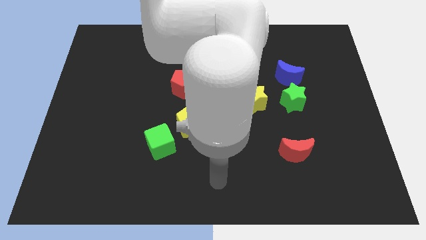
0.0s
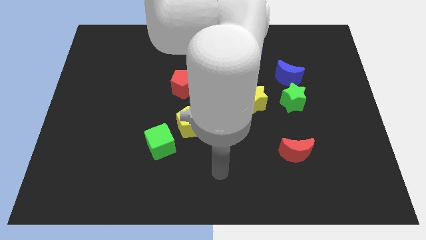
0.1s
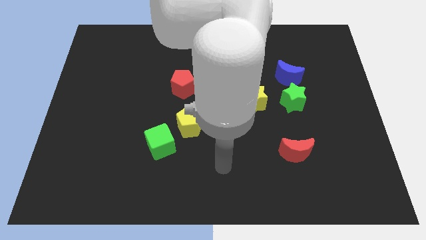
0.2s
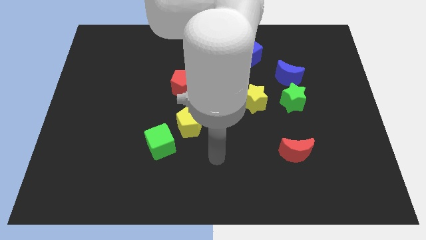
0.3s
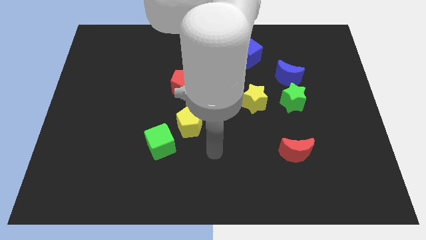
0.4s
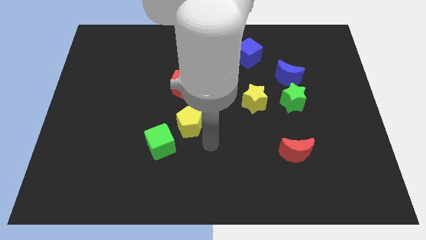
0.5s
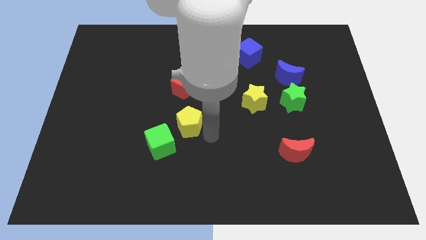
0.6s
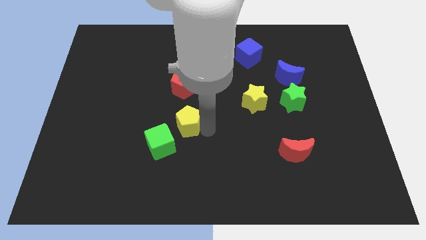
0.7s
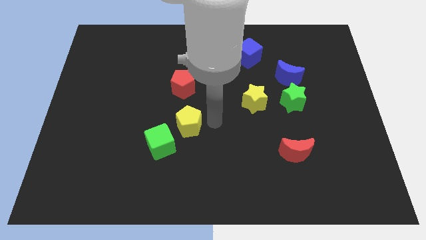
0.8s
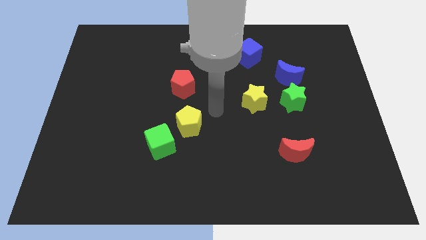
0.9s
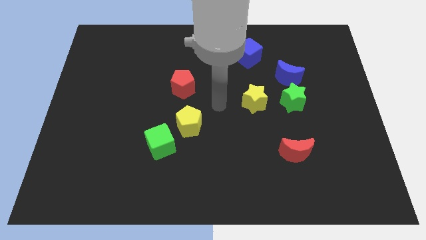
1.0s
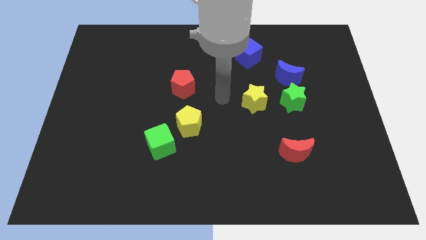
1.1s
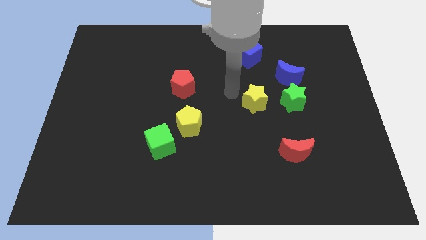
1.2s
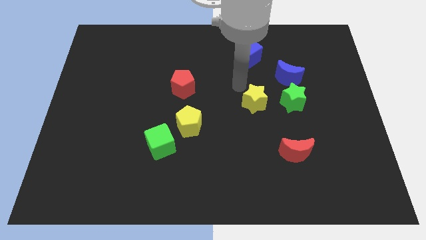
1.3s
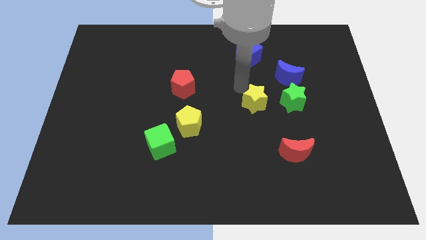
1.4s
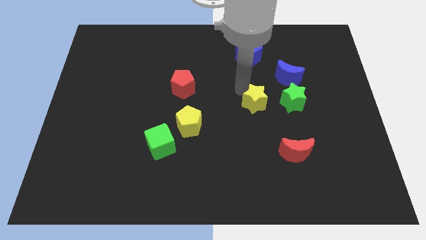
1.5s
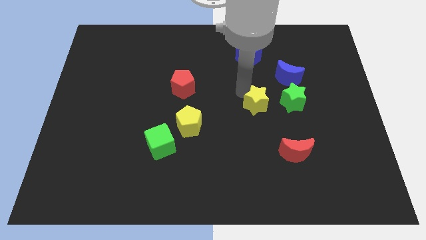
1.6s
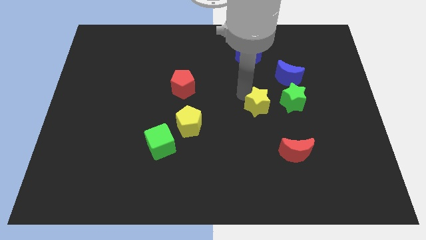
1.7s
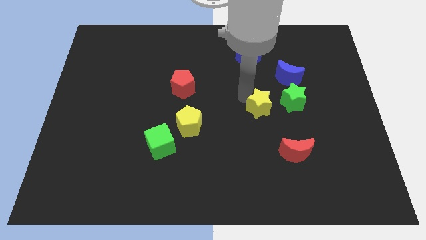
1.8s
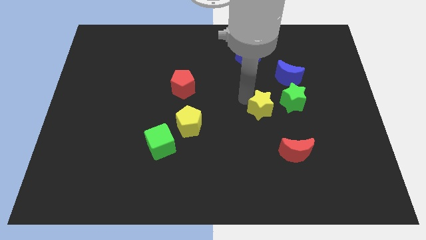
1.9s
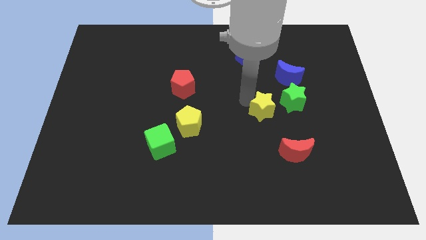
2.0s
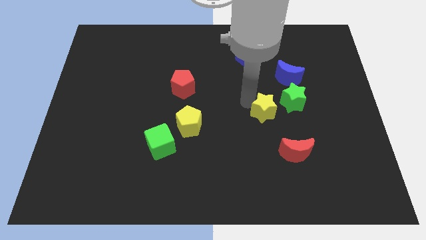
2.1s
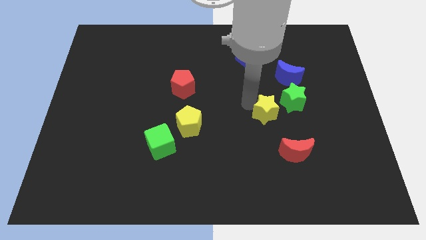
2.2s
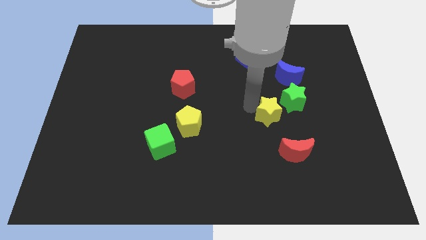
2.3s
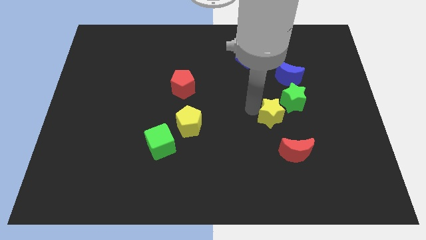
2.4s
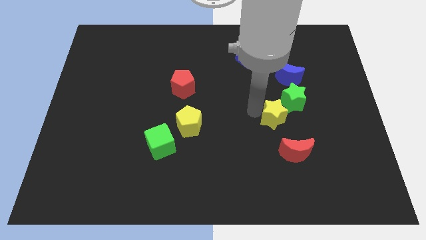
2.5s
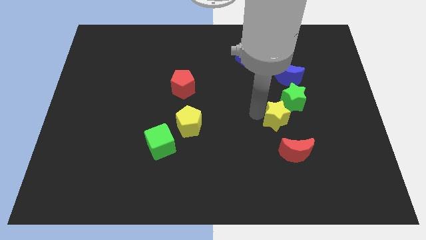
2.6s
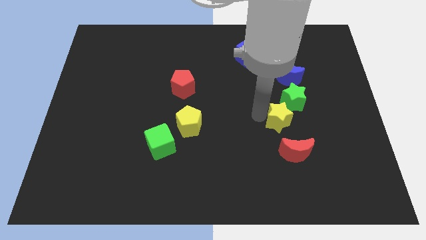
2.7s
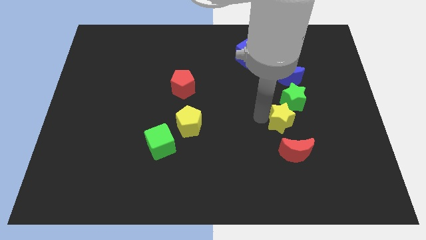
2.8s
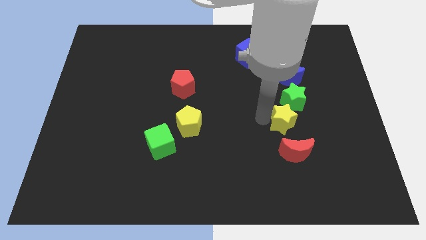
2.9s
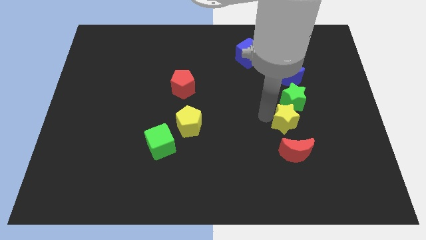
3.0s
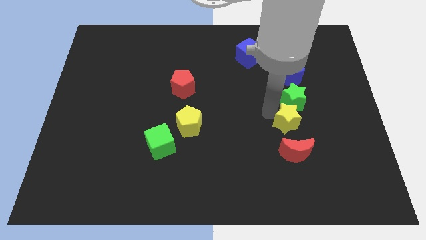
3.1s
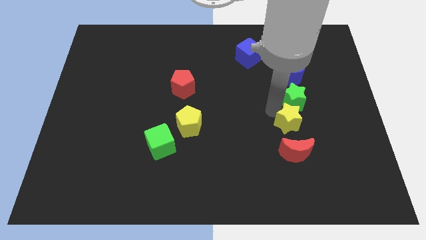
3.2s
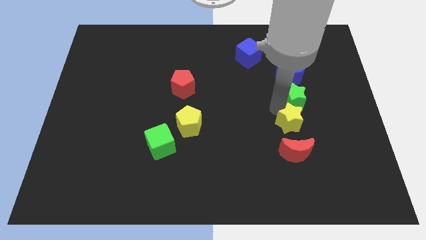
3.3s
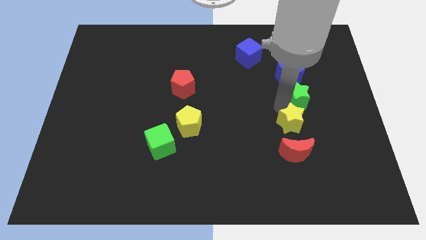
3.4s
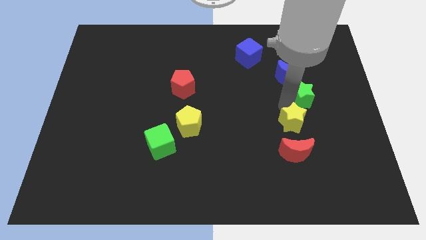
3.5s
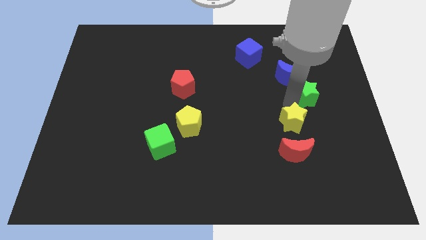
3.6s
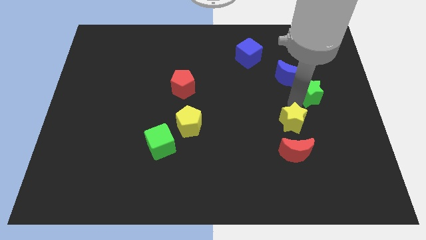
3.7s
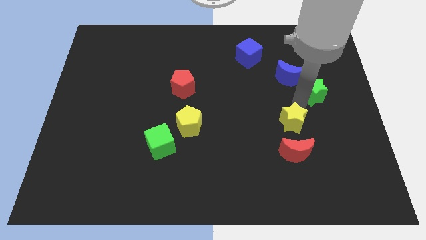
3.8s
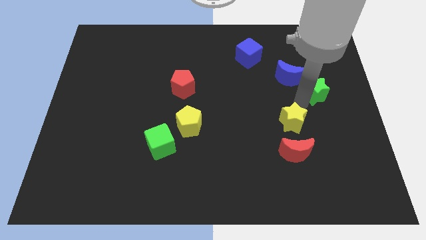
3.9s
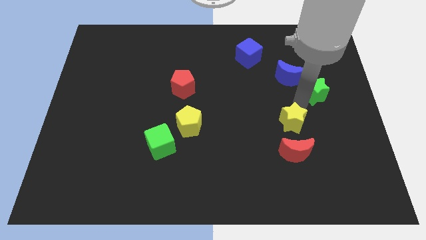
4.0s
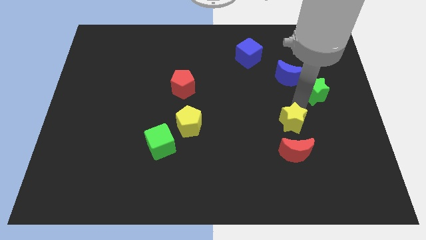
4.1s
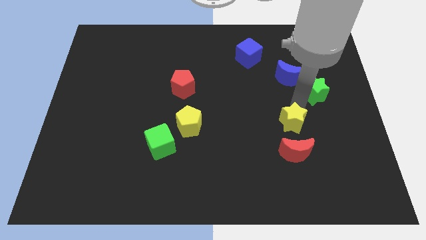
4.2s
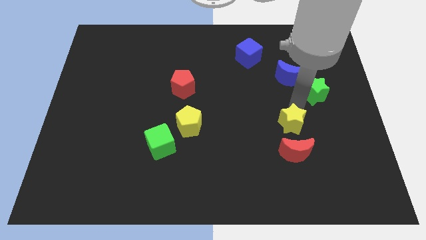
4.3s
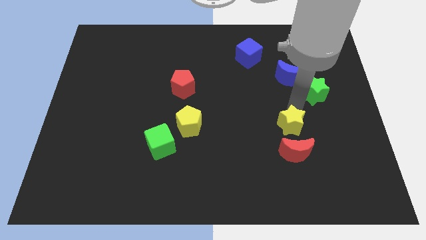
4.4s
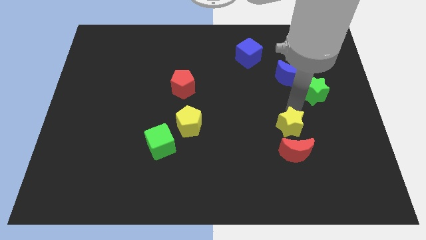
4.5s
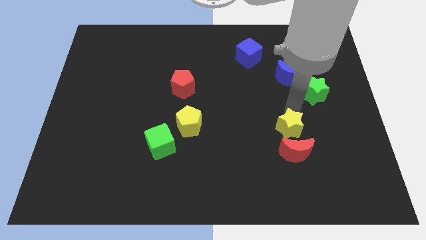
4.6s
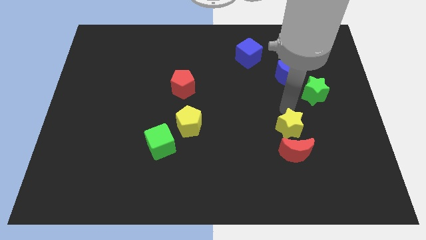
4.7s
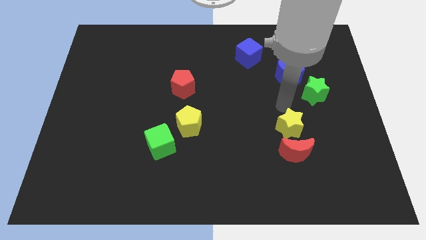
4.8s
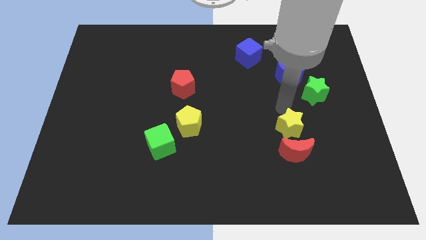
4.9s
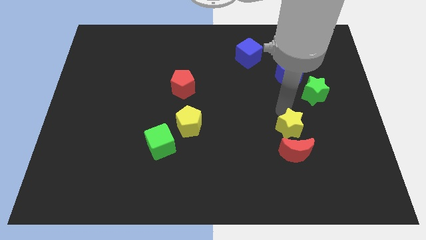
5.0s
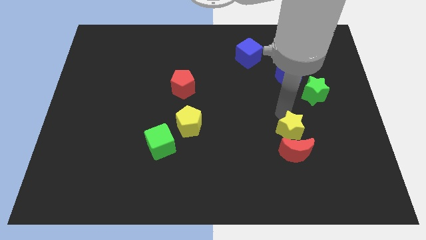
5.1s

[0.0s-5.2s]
move the yellow star towards the red moon

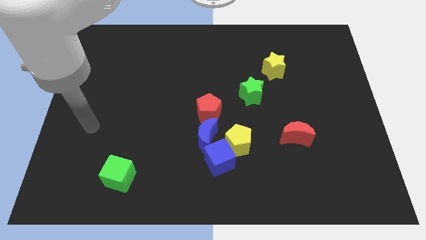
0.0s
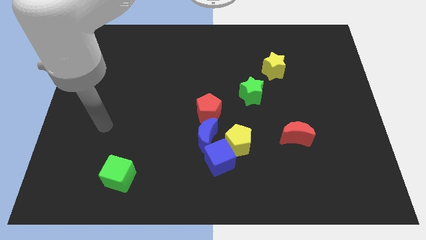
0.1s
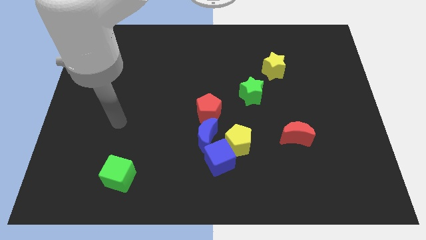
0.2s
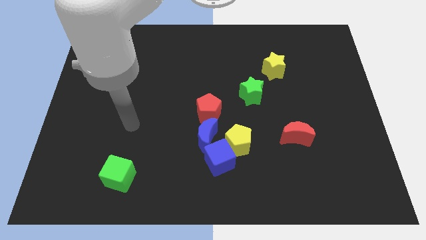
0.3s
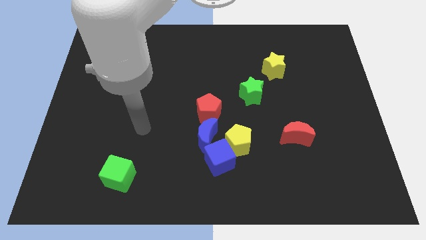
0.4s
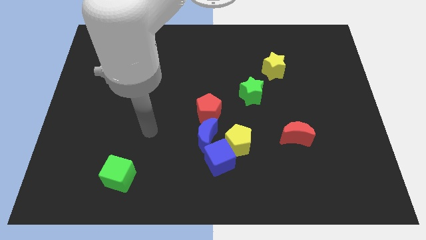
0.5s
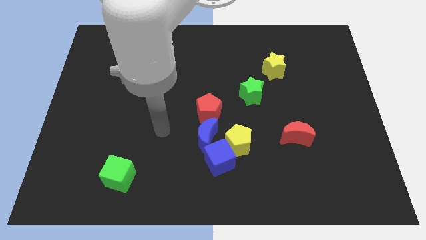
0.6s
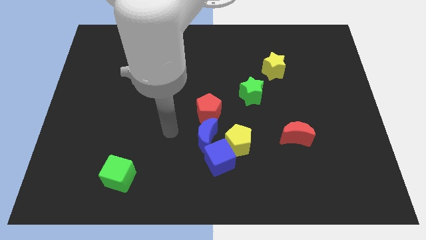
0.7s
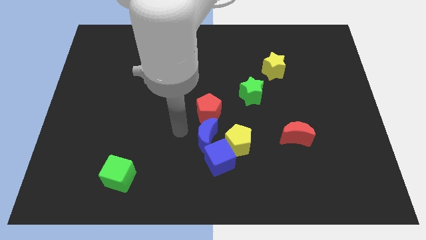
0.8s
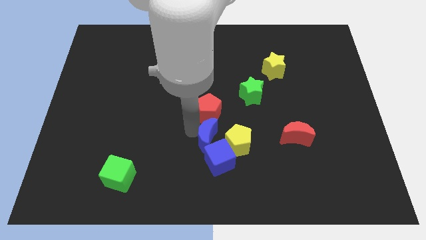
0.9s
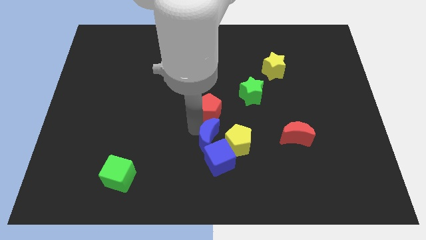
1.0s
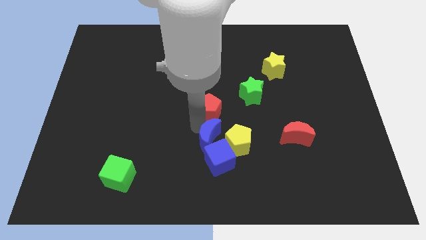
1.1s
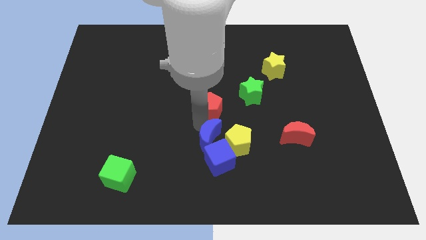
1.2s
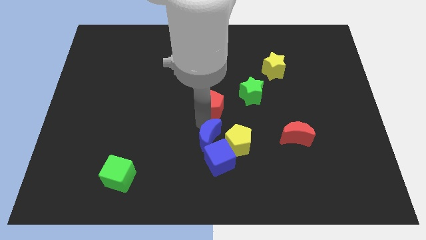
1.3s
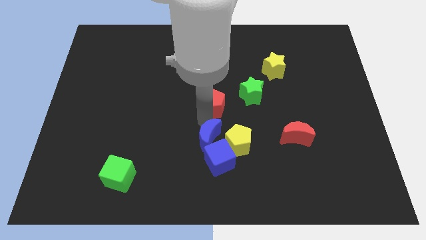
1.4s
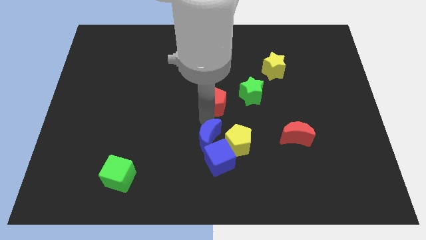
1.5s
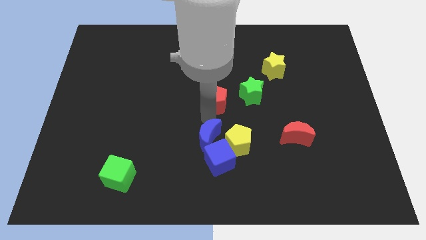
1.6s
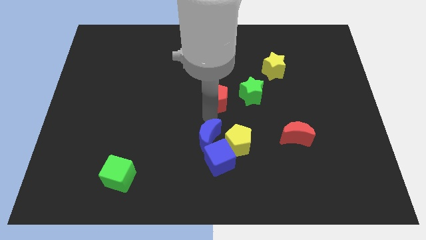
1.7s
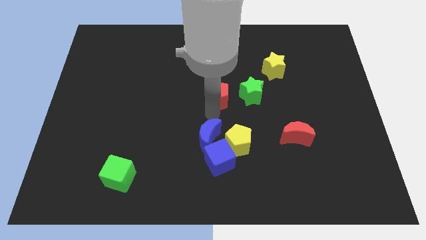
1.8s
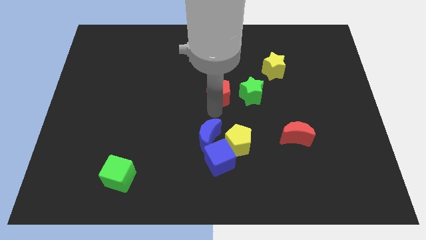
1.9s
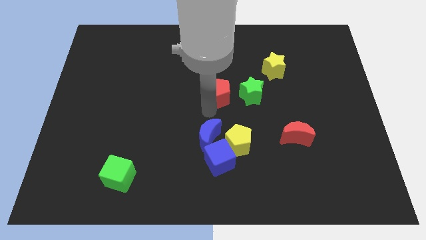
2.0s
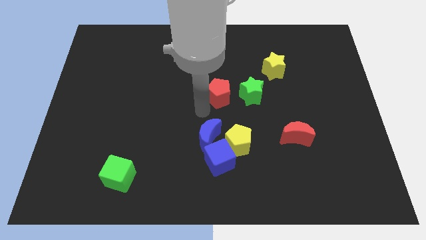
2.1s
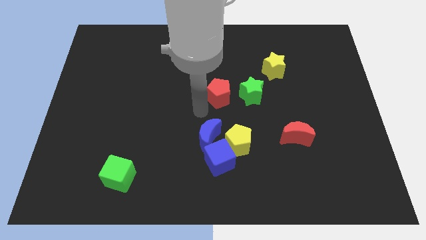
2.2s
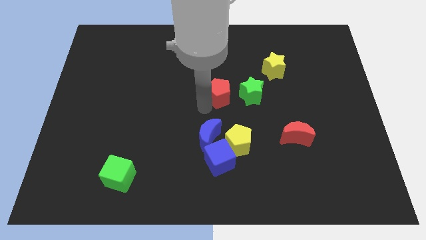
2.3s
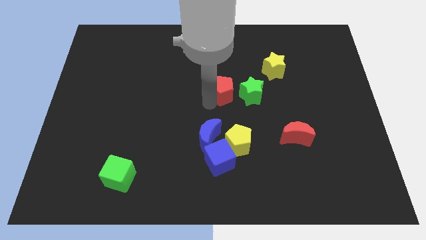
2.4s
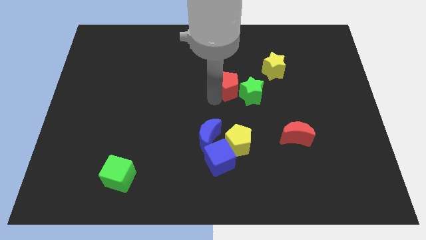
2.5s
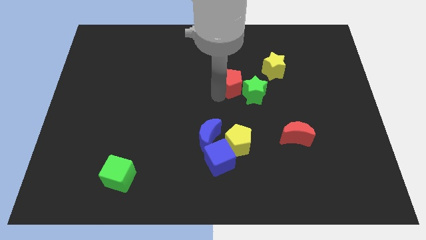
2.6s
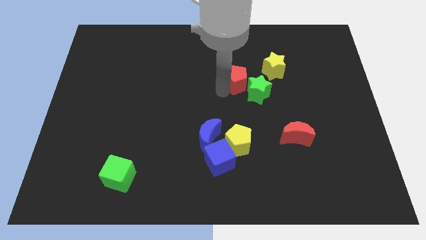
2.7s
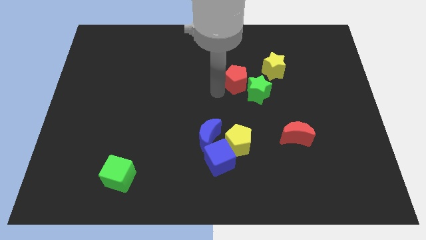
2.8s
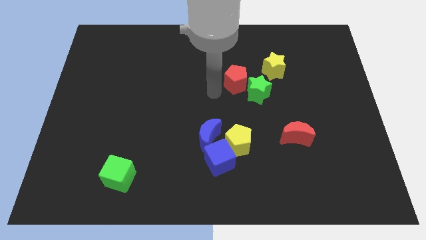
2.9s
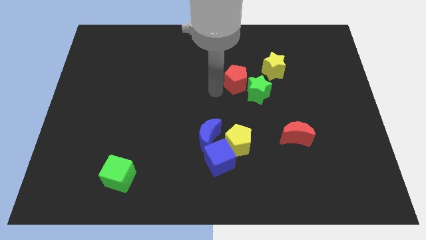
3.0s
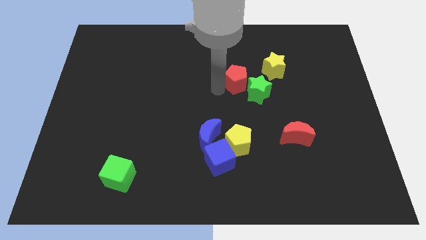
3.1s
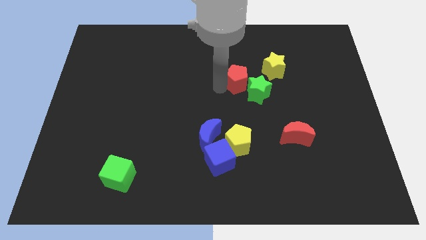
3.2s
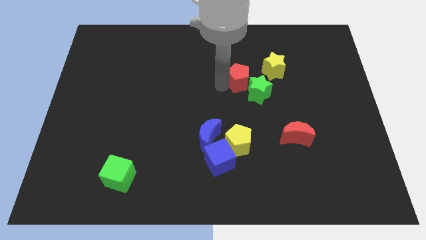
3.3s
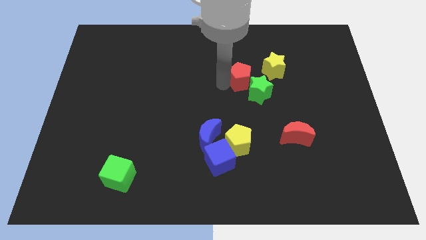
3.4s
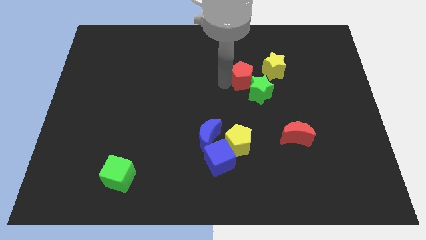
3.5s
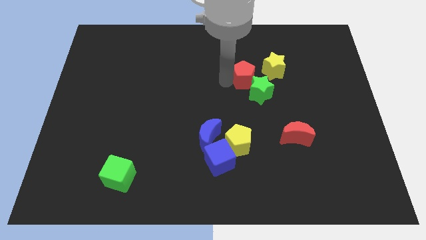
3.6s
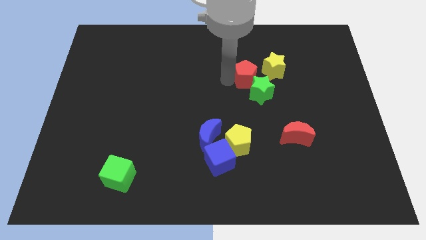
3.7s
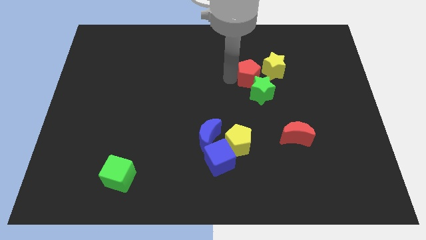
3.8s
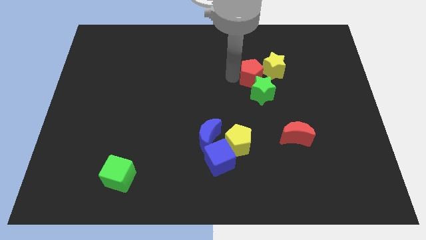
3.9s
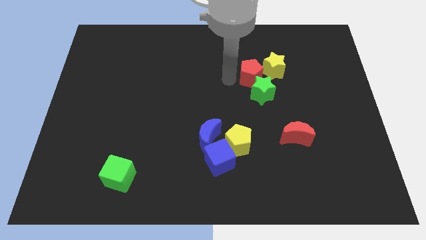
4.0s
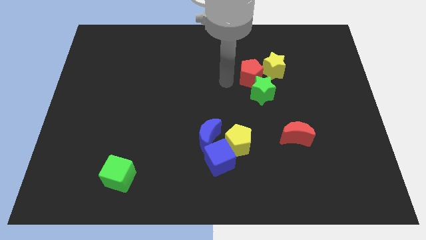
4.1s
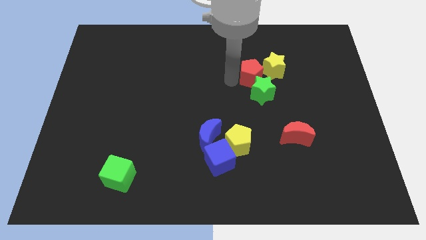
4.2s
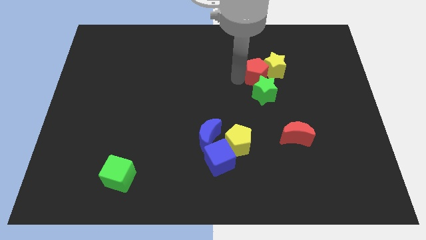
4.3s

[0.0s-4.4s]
put the red pentagon towards the yellow star
